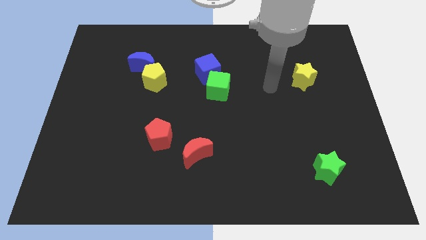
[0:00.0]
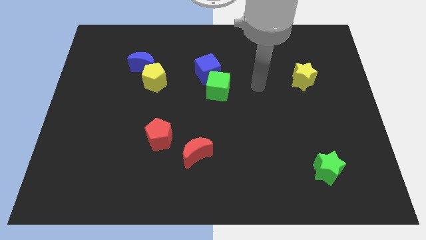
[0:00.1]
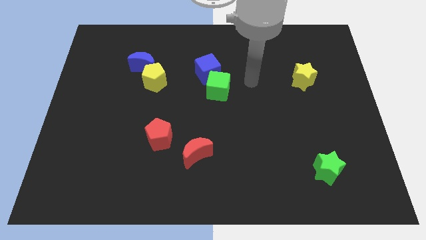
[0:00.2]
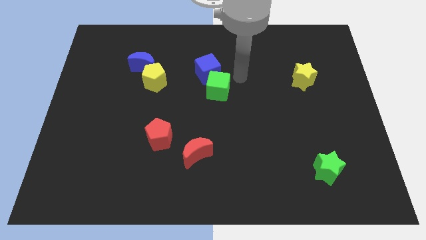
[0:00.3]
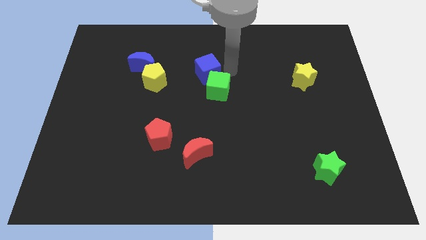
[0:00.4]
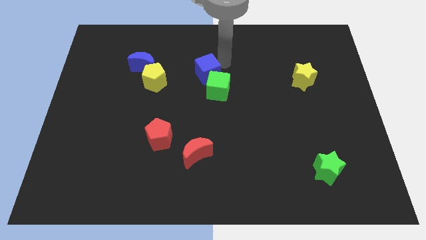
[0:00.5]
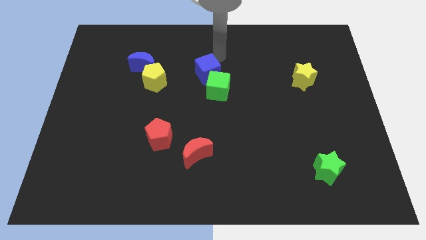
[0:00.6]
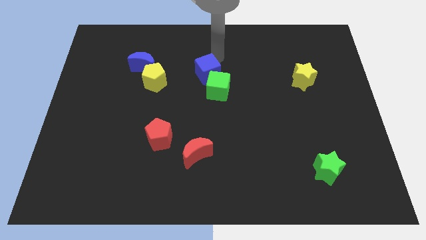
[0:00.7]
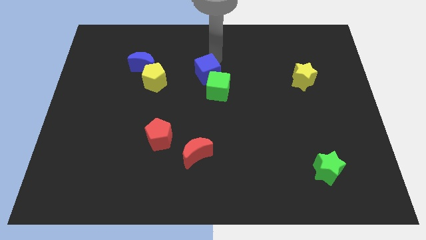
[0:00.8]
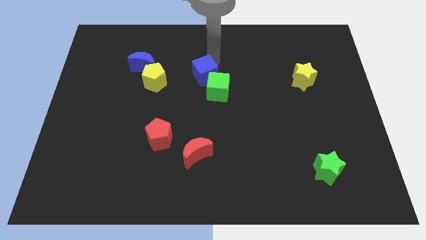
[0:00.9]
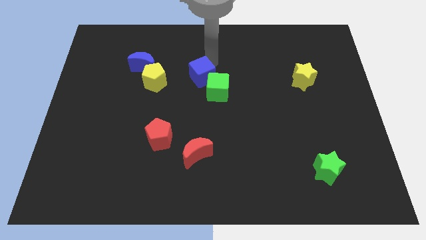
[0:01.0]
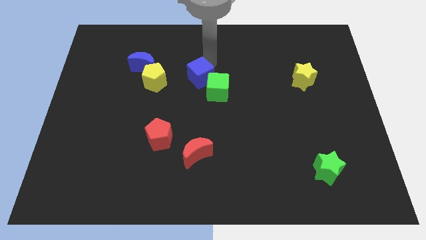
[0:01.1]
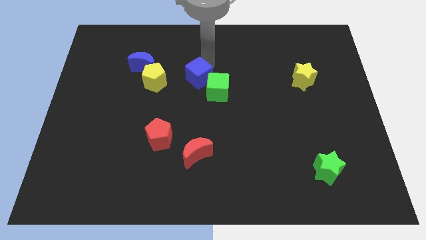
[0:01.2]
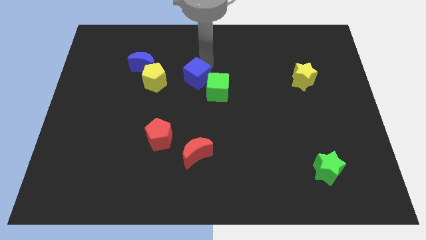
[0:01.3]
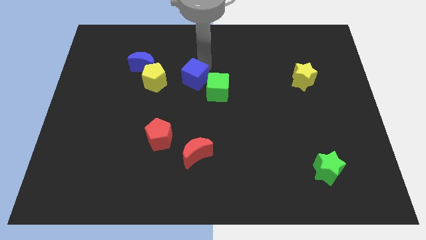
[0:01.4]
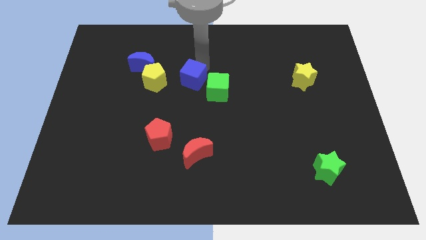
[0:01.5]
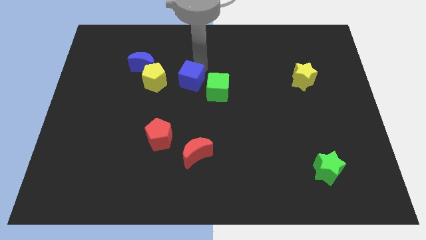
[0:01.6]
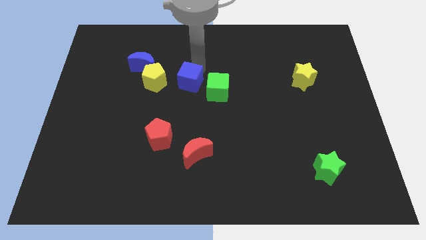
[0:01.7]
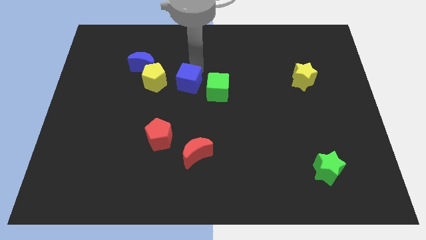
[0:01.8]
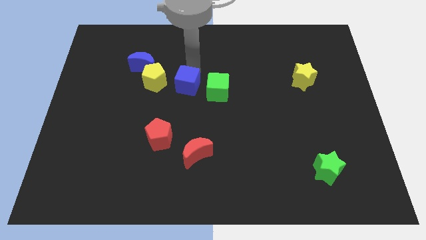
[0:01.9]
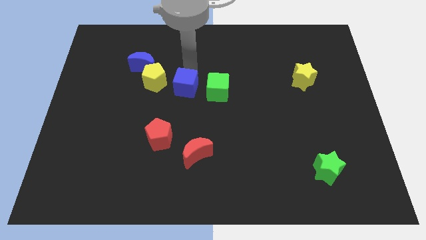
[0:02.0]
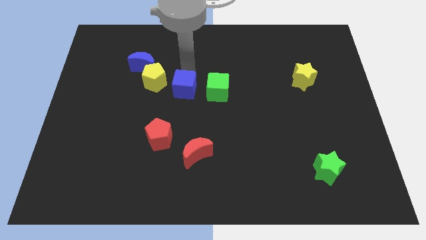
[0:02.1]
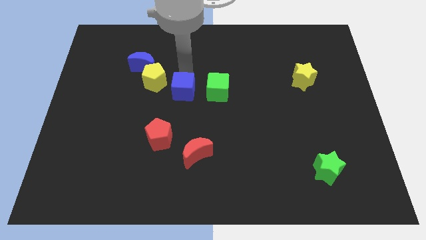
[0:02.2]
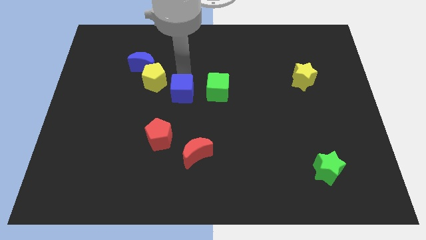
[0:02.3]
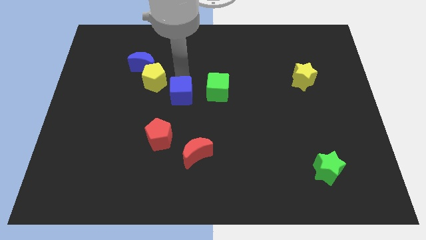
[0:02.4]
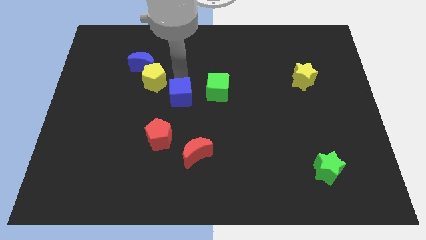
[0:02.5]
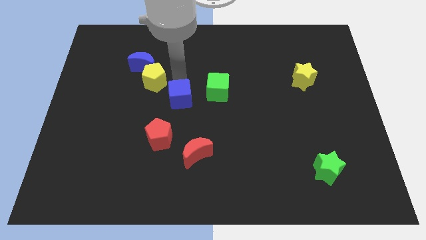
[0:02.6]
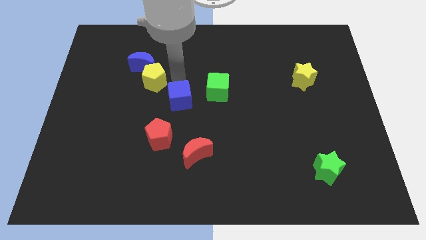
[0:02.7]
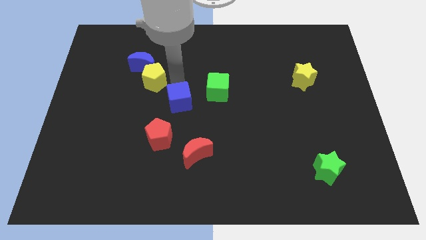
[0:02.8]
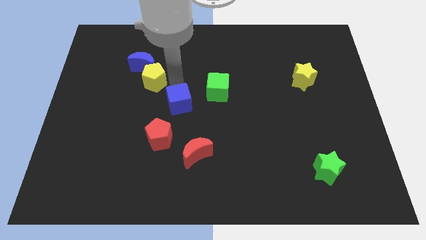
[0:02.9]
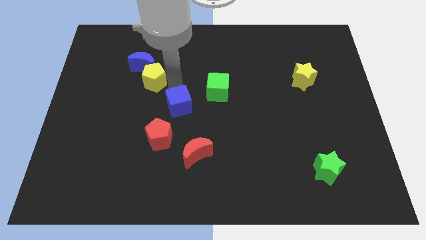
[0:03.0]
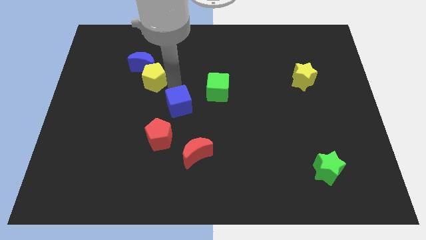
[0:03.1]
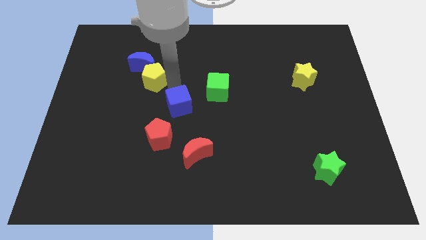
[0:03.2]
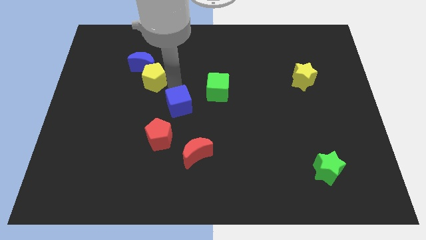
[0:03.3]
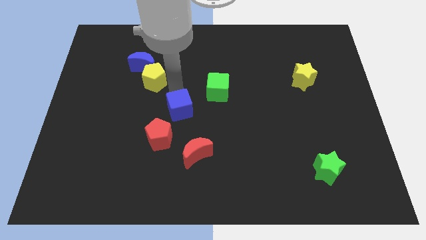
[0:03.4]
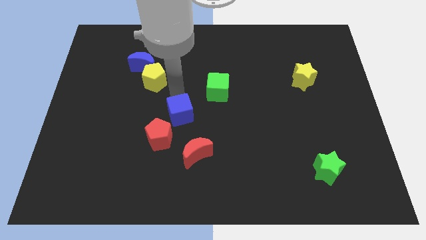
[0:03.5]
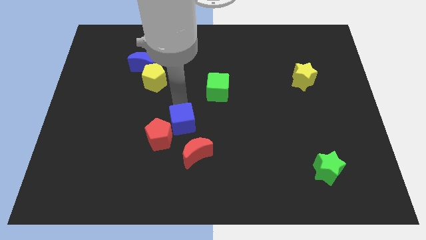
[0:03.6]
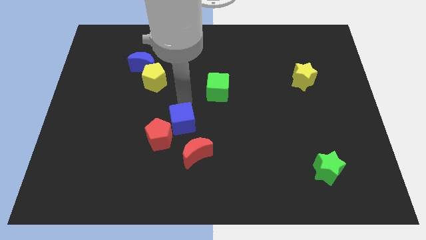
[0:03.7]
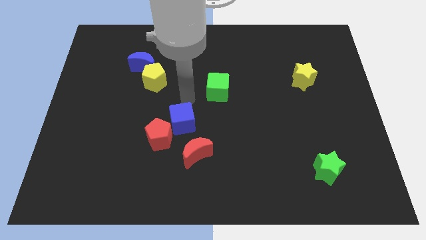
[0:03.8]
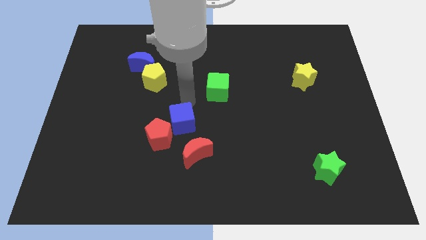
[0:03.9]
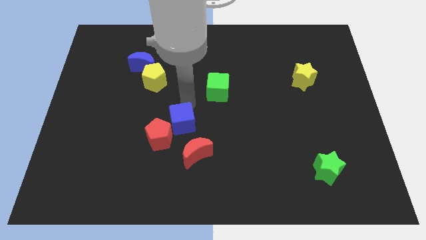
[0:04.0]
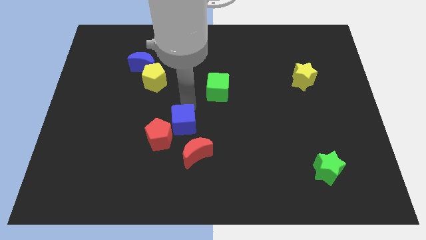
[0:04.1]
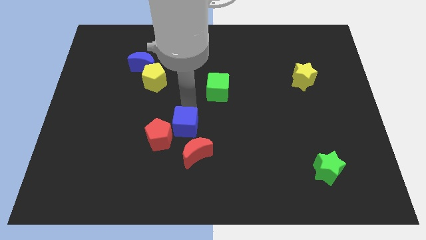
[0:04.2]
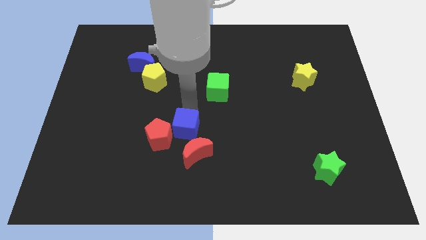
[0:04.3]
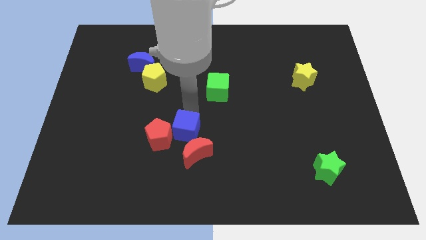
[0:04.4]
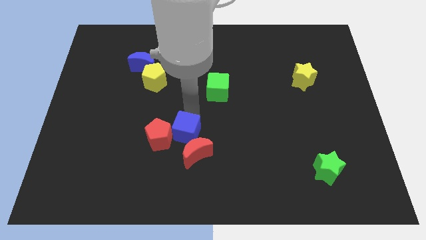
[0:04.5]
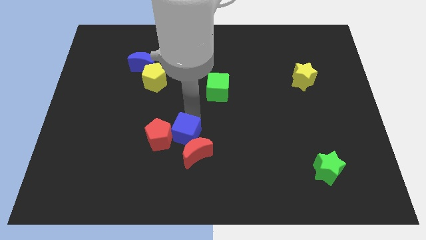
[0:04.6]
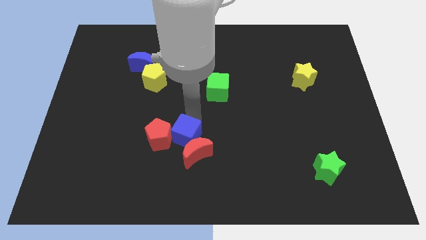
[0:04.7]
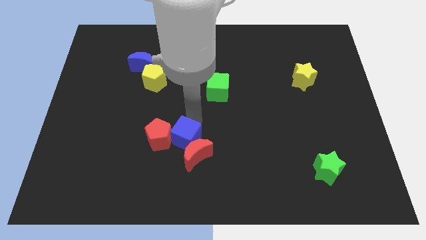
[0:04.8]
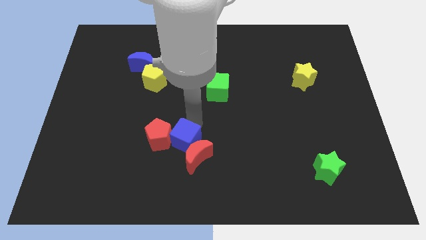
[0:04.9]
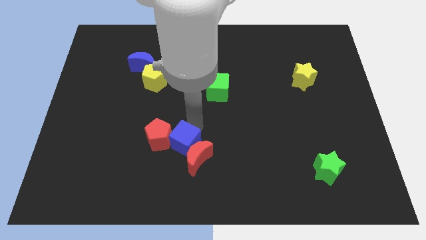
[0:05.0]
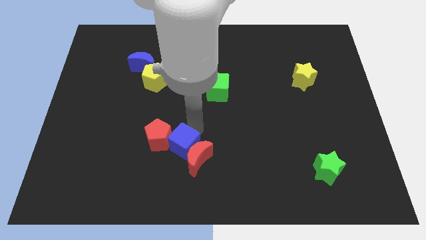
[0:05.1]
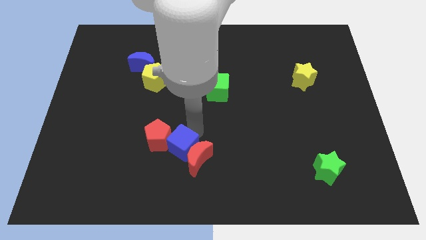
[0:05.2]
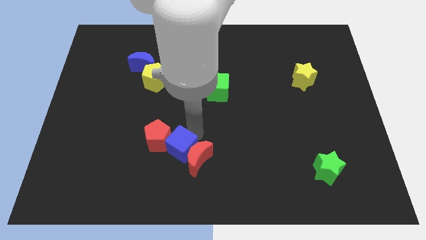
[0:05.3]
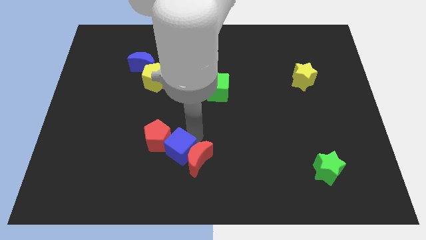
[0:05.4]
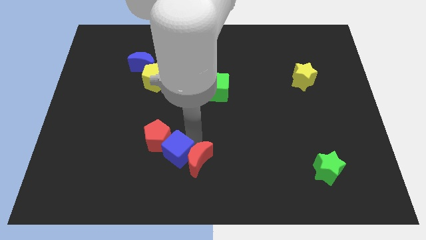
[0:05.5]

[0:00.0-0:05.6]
move the blue cube to the bottom of the red pentagon

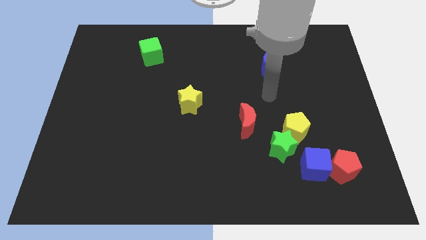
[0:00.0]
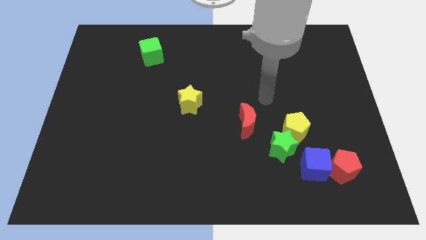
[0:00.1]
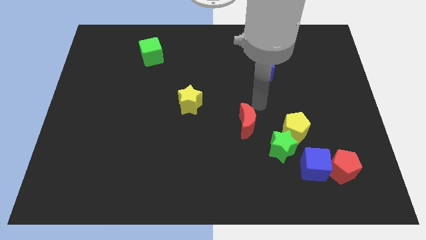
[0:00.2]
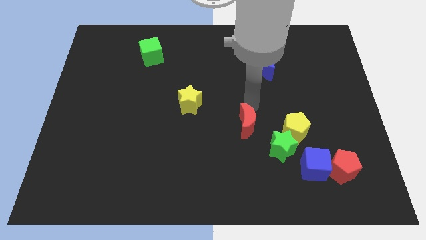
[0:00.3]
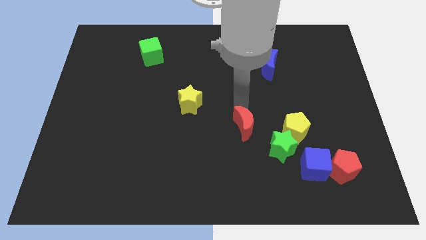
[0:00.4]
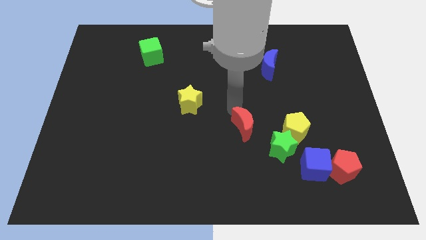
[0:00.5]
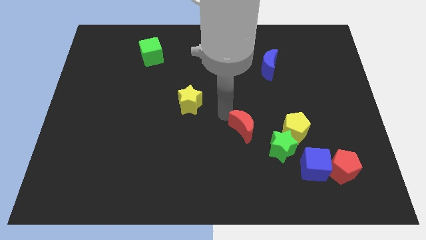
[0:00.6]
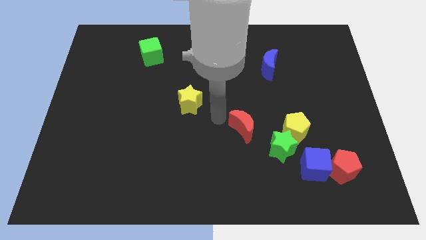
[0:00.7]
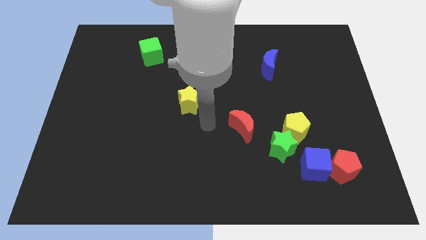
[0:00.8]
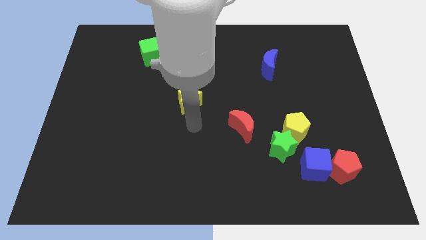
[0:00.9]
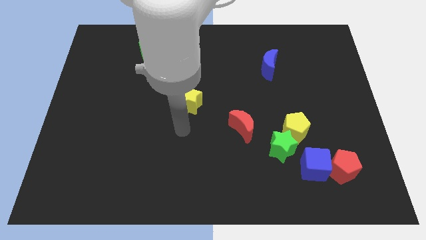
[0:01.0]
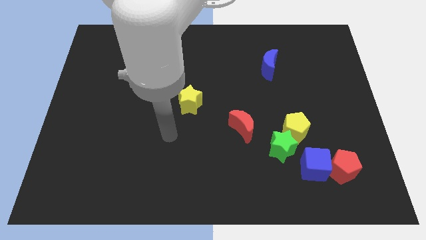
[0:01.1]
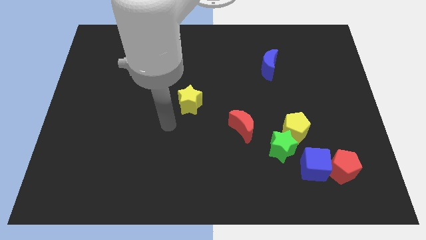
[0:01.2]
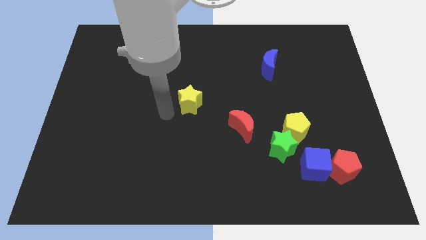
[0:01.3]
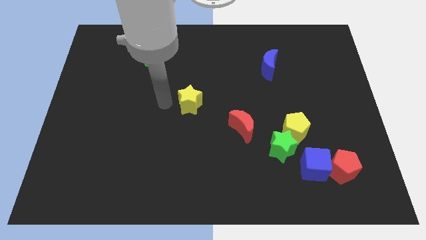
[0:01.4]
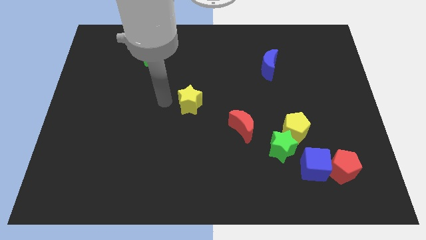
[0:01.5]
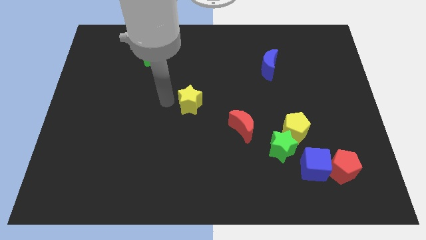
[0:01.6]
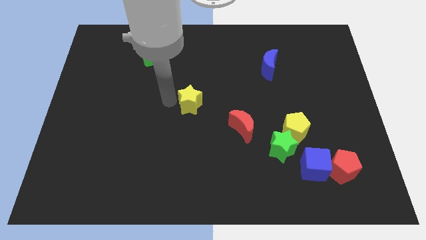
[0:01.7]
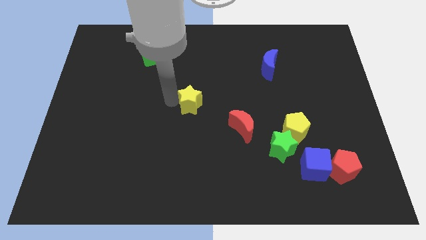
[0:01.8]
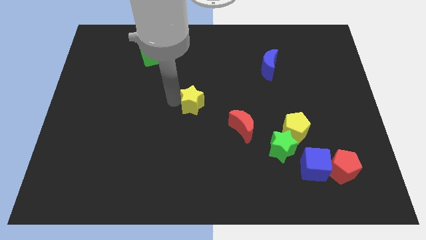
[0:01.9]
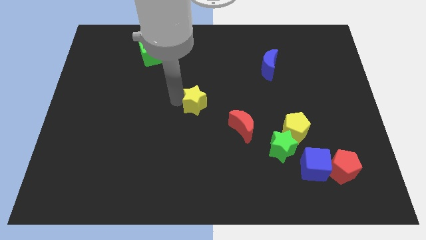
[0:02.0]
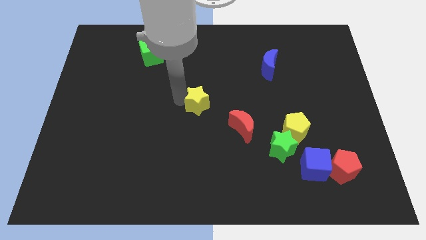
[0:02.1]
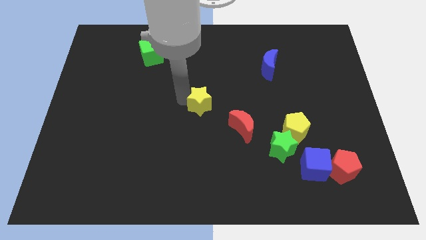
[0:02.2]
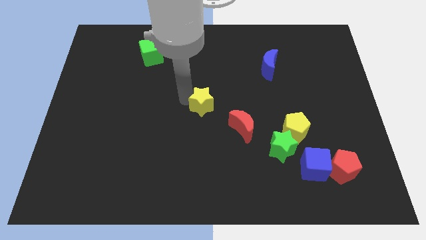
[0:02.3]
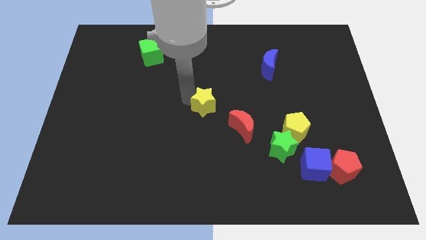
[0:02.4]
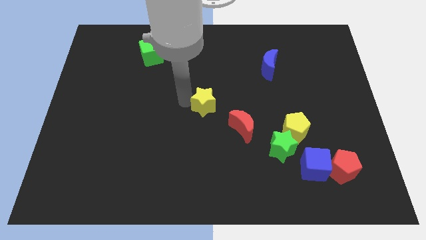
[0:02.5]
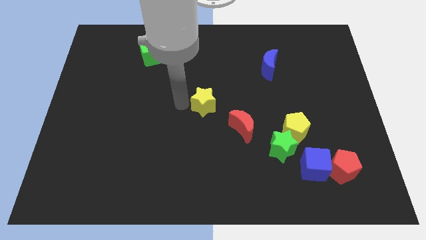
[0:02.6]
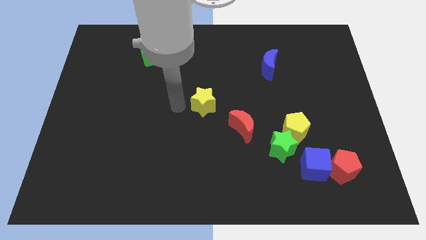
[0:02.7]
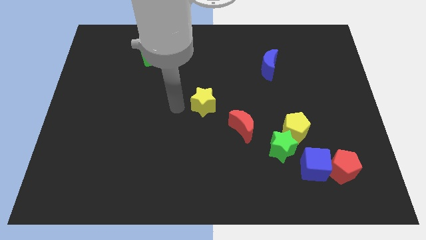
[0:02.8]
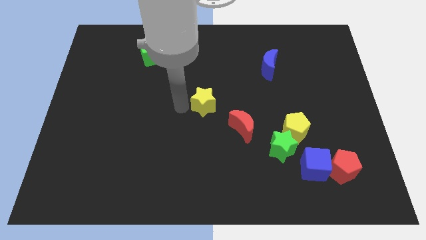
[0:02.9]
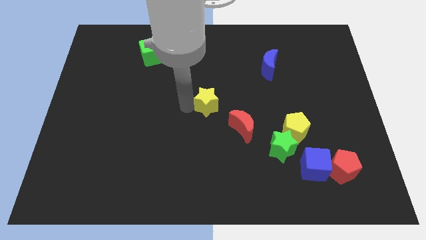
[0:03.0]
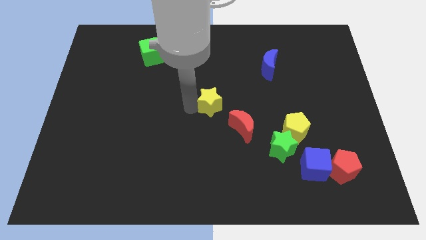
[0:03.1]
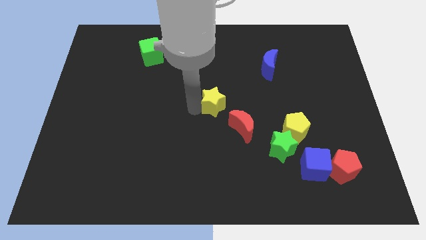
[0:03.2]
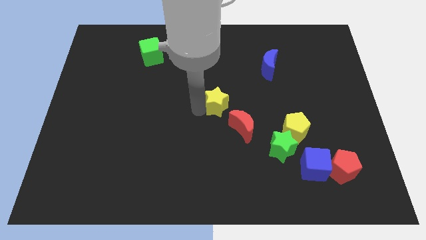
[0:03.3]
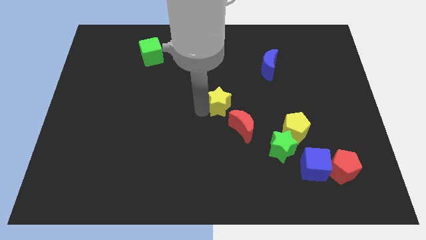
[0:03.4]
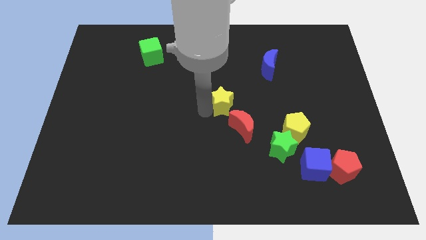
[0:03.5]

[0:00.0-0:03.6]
put the yellow star to the top side of the red moon
